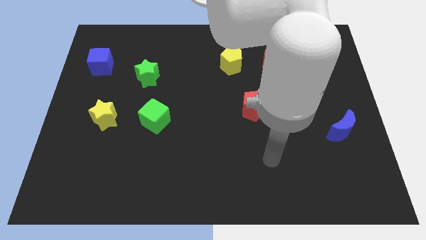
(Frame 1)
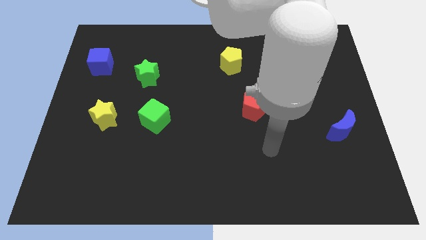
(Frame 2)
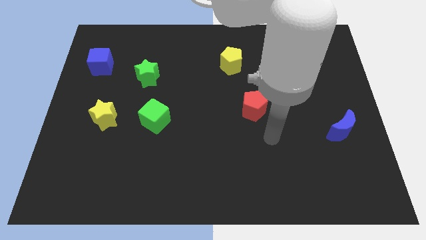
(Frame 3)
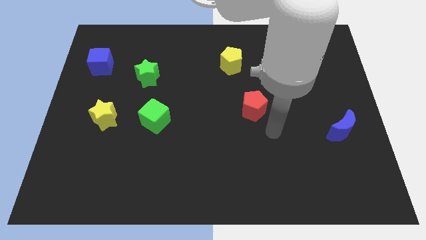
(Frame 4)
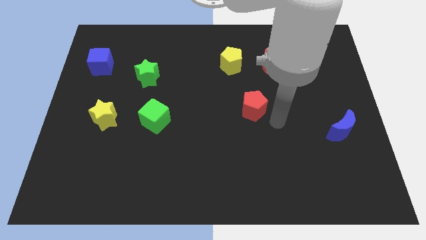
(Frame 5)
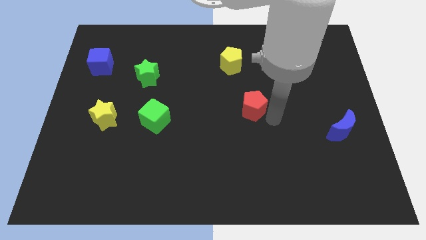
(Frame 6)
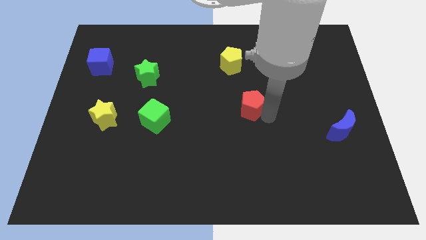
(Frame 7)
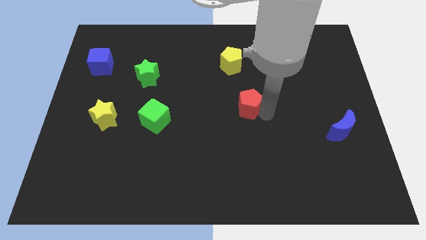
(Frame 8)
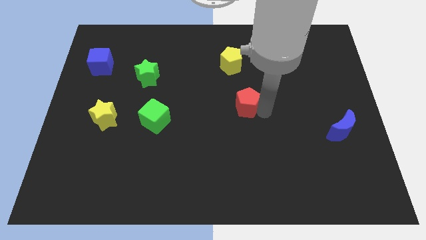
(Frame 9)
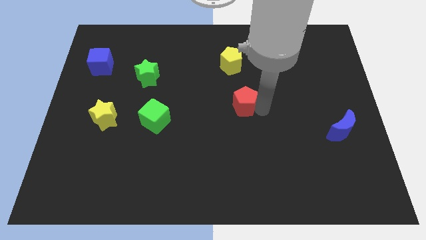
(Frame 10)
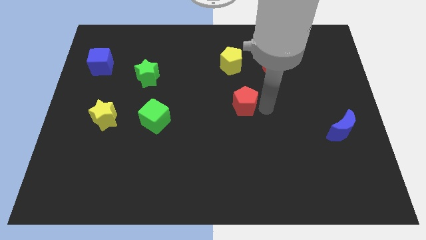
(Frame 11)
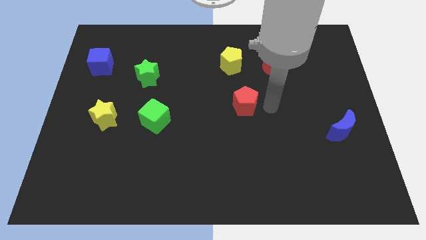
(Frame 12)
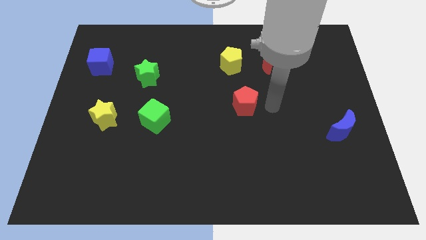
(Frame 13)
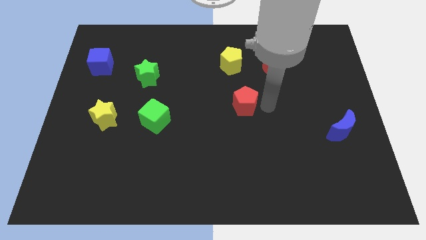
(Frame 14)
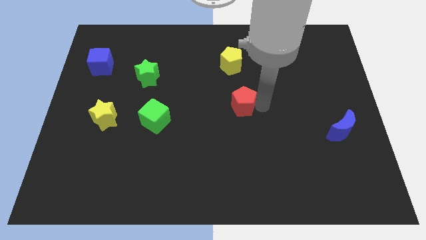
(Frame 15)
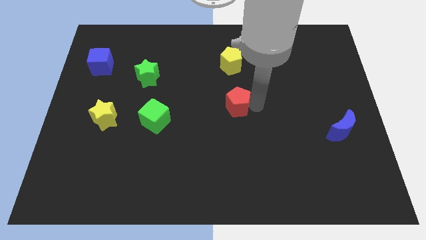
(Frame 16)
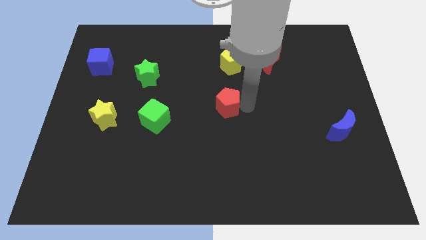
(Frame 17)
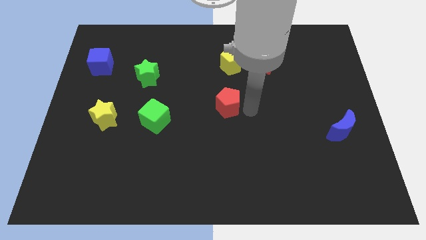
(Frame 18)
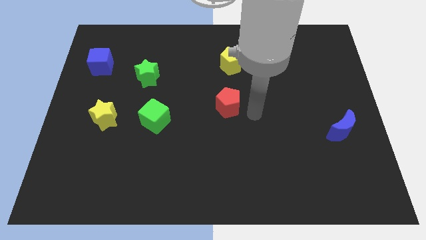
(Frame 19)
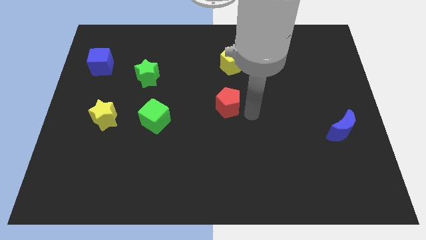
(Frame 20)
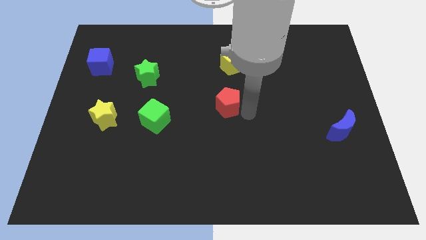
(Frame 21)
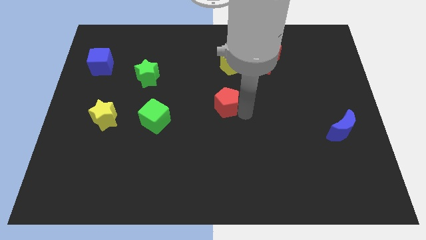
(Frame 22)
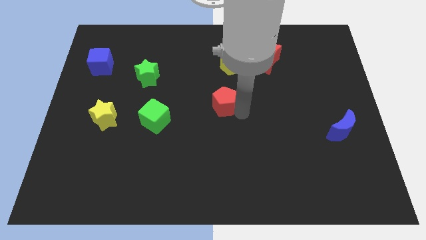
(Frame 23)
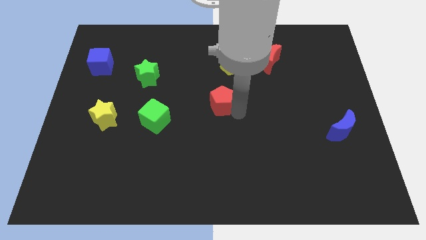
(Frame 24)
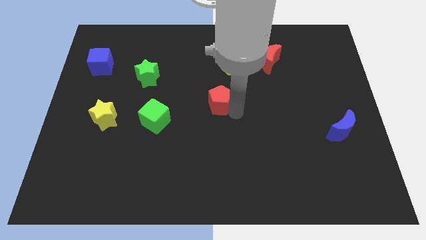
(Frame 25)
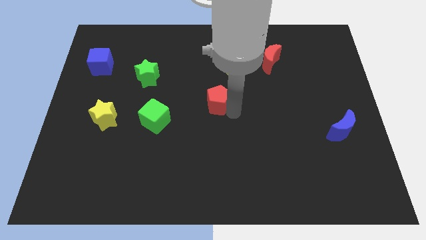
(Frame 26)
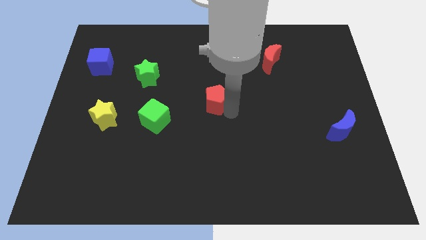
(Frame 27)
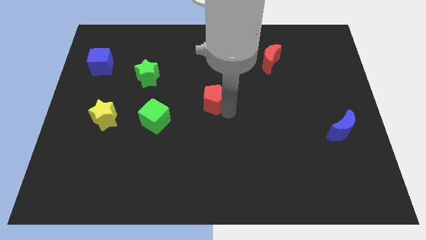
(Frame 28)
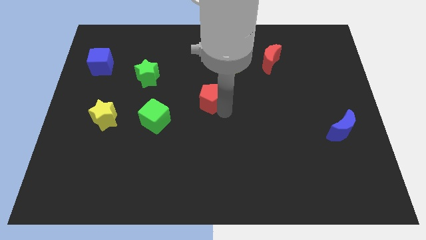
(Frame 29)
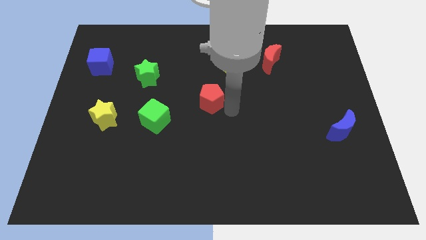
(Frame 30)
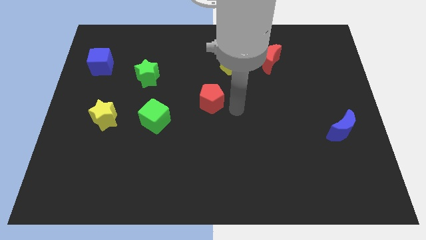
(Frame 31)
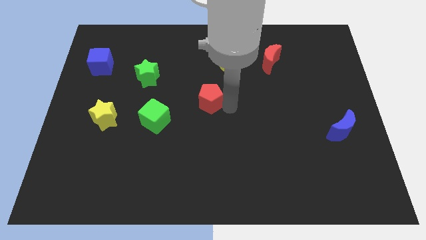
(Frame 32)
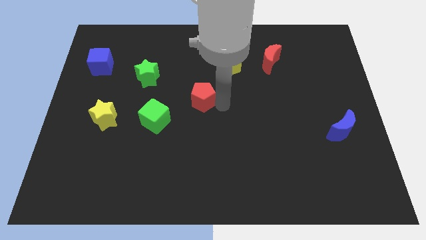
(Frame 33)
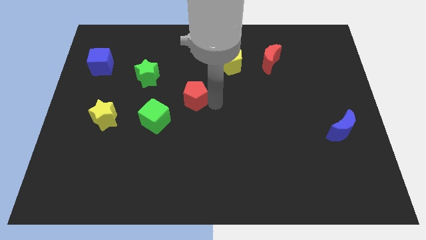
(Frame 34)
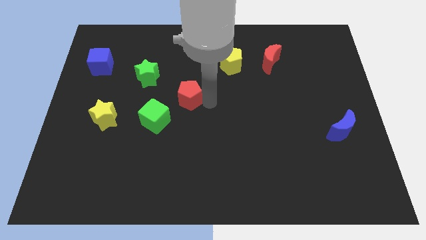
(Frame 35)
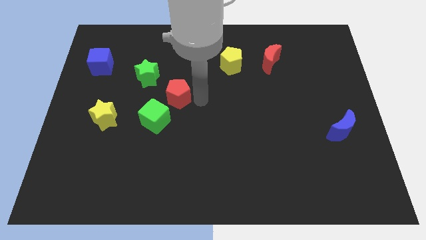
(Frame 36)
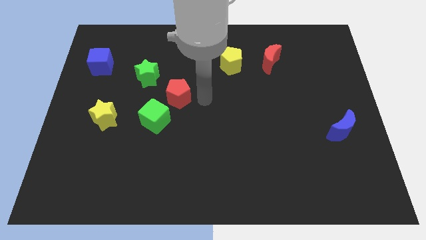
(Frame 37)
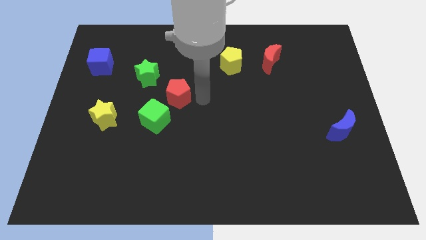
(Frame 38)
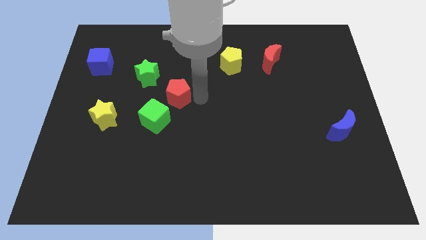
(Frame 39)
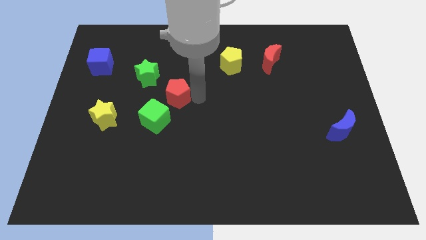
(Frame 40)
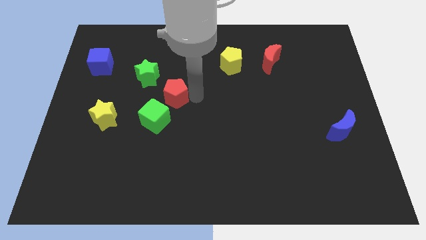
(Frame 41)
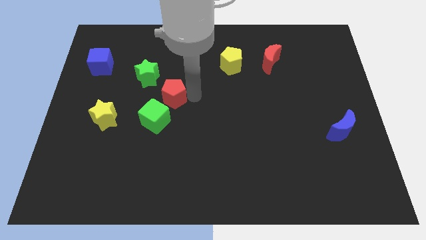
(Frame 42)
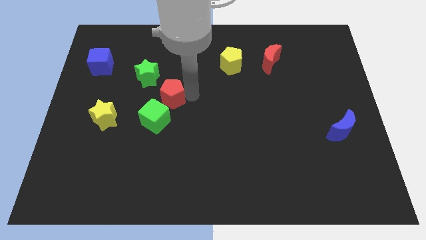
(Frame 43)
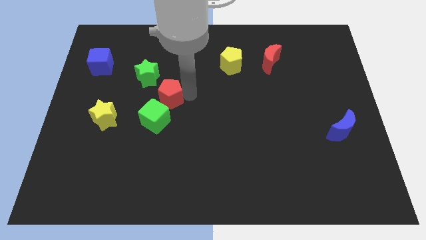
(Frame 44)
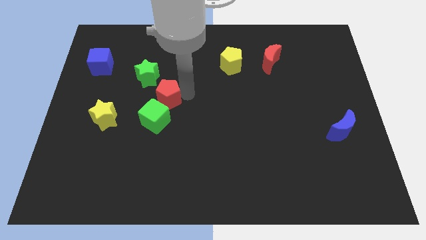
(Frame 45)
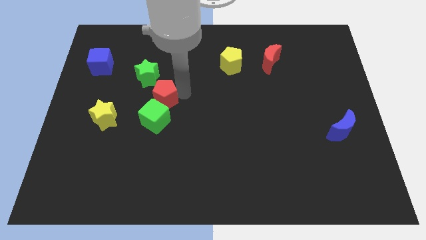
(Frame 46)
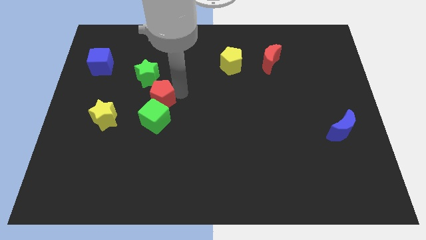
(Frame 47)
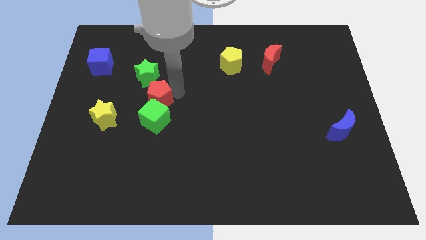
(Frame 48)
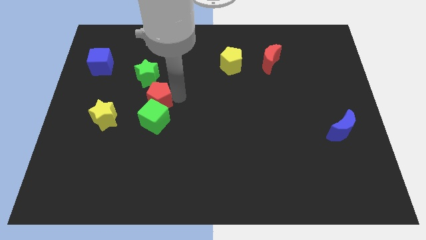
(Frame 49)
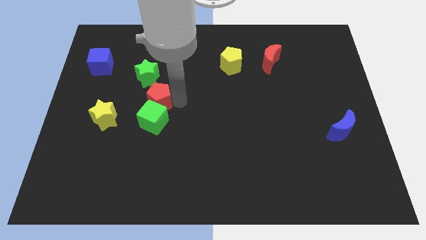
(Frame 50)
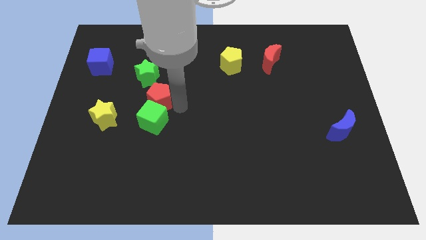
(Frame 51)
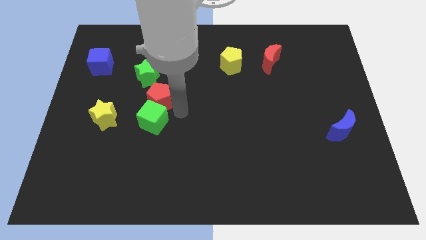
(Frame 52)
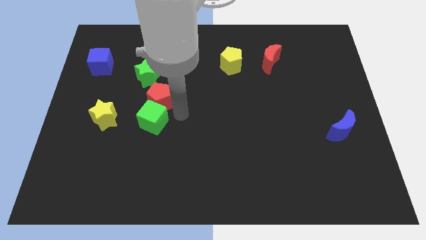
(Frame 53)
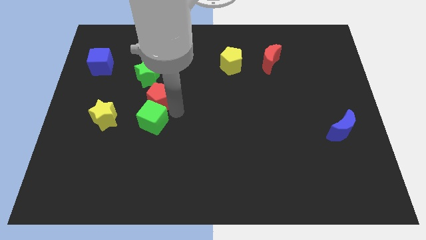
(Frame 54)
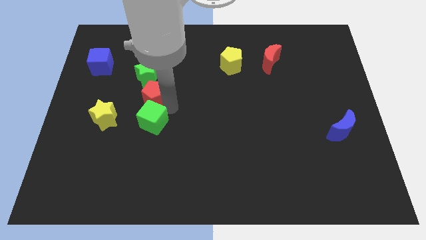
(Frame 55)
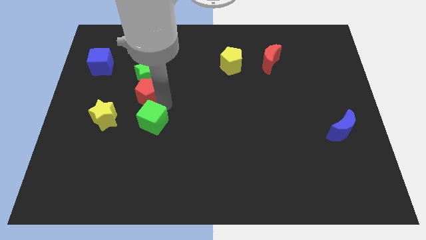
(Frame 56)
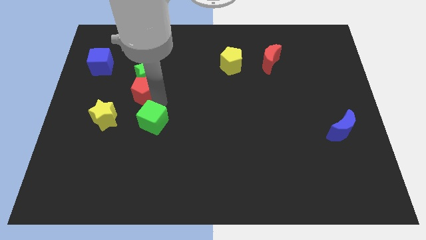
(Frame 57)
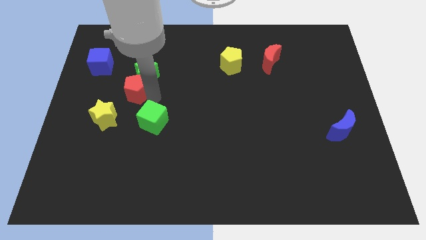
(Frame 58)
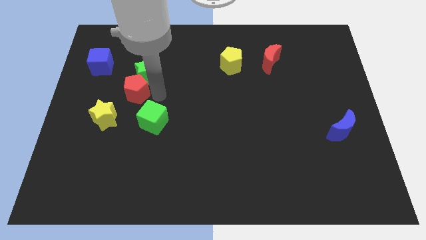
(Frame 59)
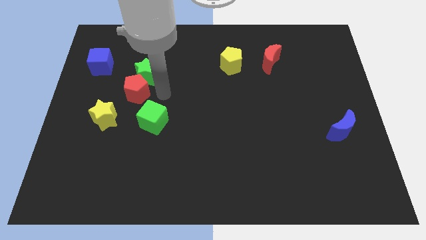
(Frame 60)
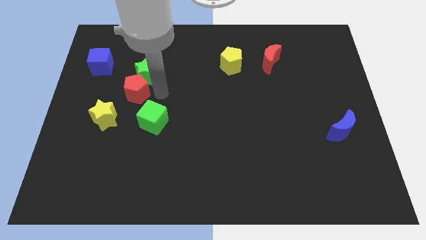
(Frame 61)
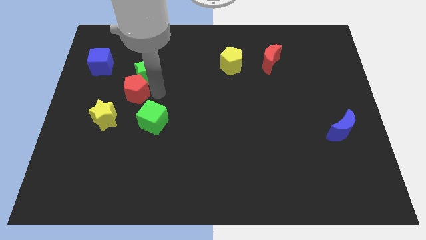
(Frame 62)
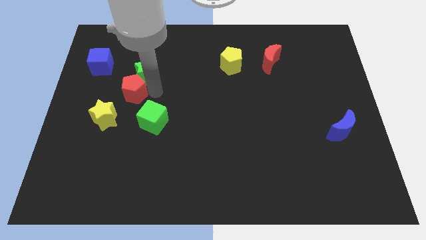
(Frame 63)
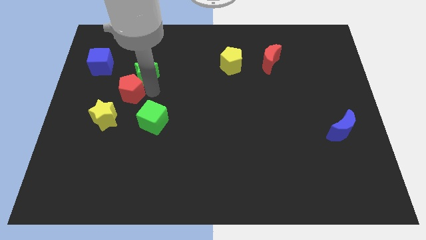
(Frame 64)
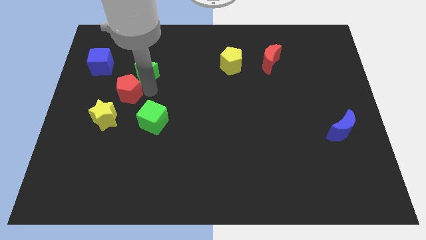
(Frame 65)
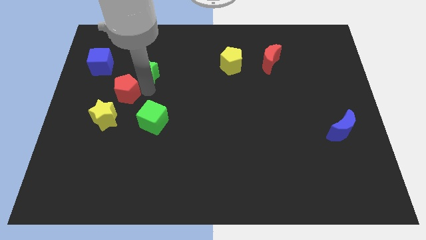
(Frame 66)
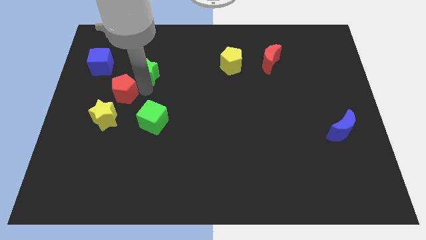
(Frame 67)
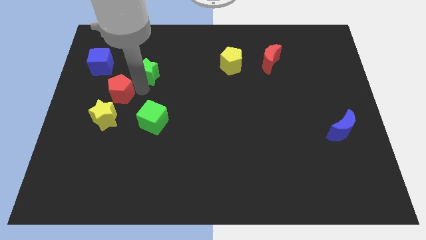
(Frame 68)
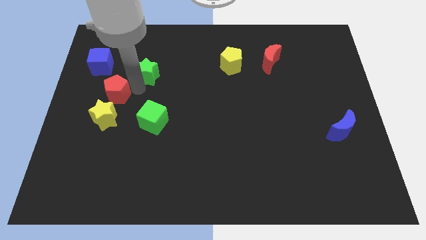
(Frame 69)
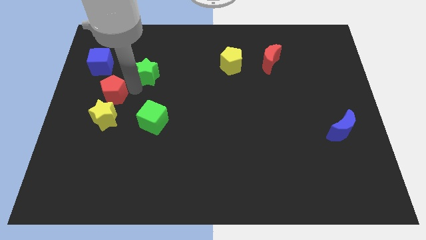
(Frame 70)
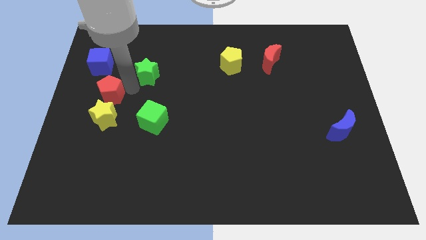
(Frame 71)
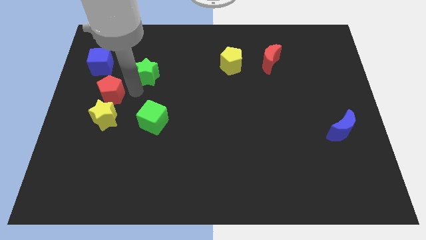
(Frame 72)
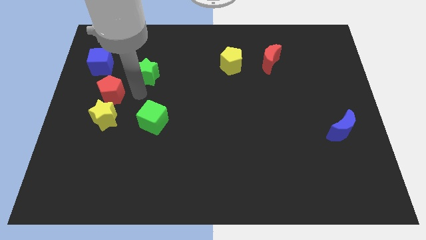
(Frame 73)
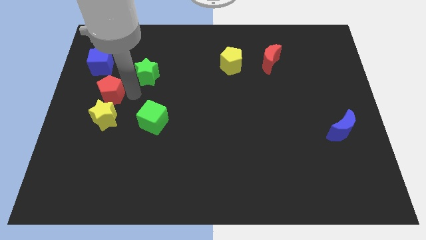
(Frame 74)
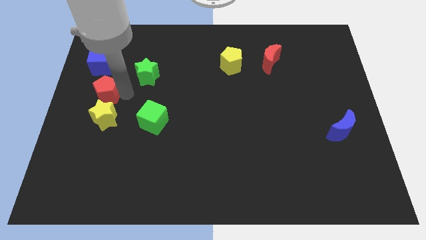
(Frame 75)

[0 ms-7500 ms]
push the red pentagon to the left side of the board
